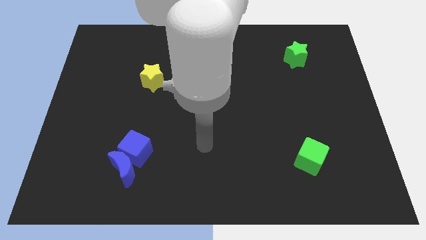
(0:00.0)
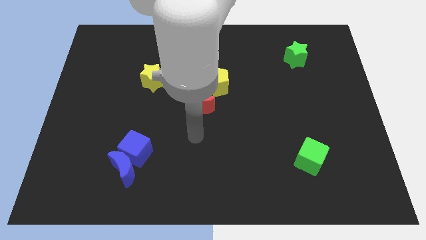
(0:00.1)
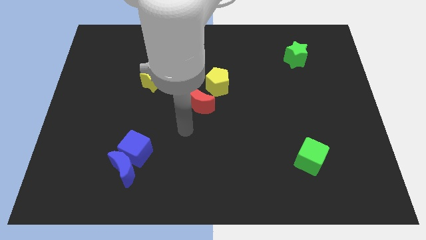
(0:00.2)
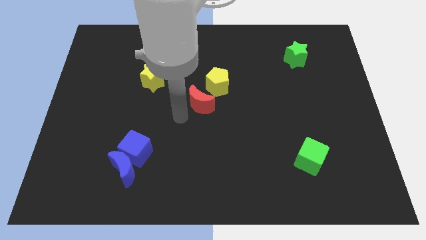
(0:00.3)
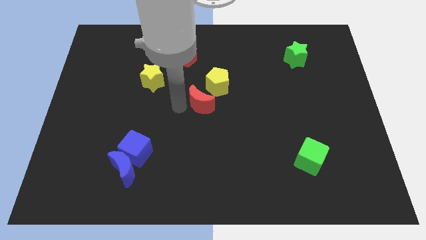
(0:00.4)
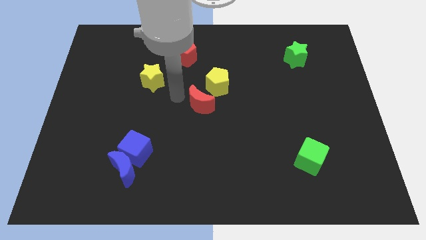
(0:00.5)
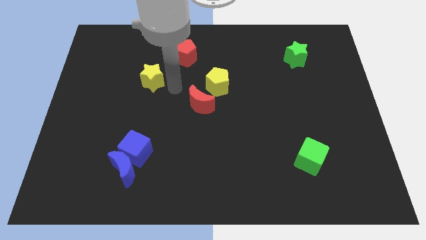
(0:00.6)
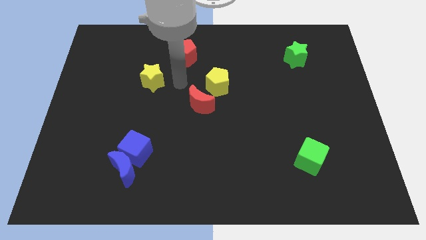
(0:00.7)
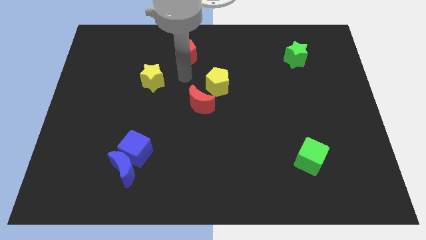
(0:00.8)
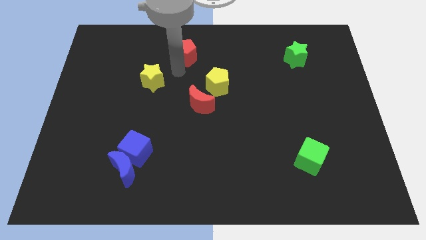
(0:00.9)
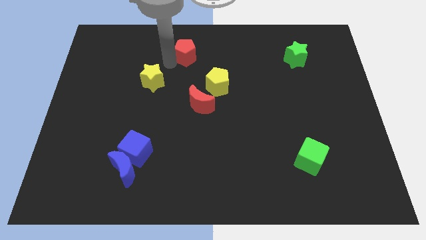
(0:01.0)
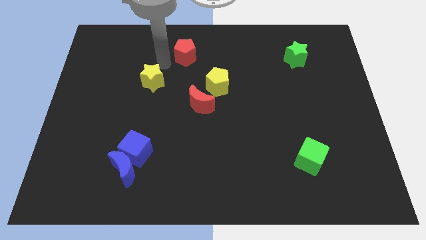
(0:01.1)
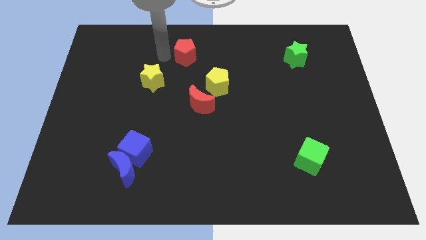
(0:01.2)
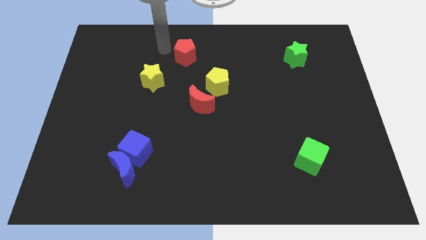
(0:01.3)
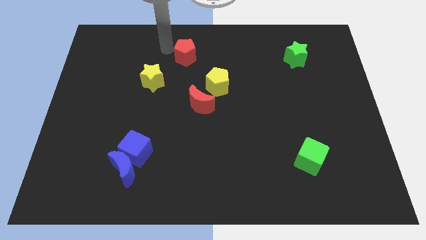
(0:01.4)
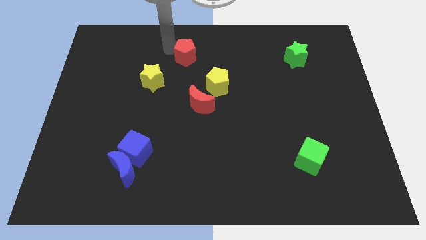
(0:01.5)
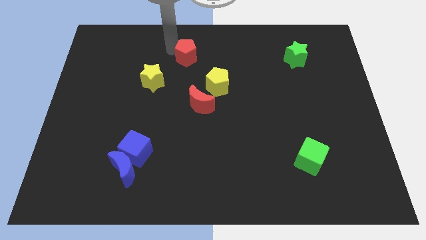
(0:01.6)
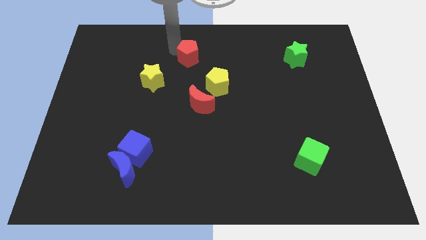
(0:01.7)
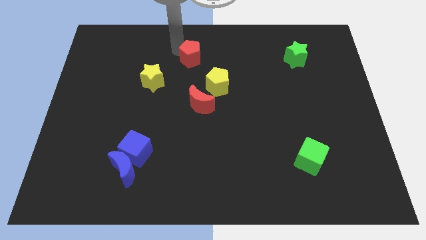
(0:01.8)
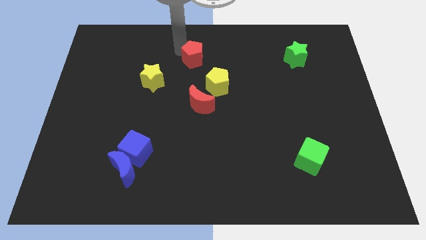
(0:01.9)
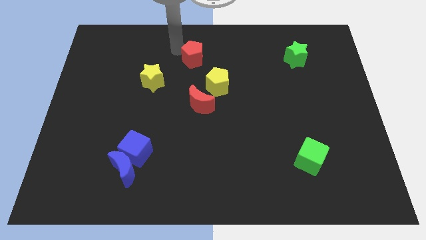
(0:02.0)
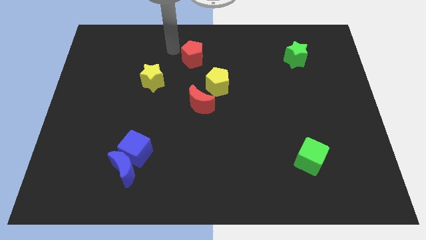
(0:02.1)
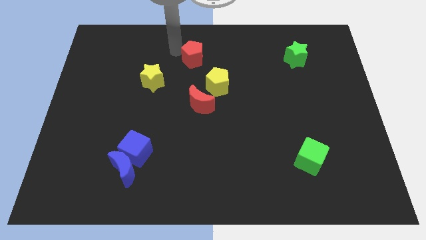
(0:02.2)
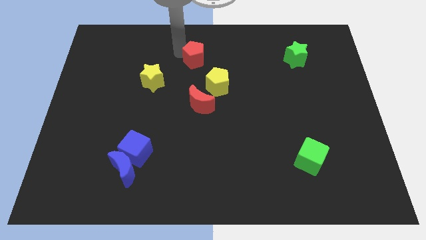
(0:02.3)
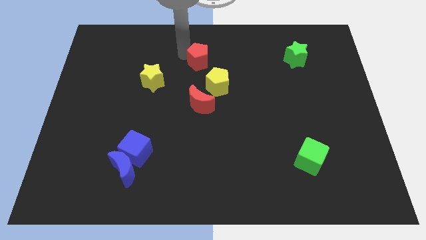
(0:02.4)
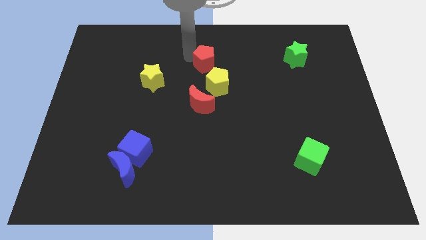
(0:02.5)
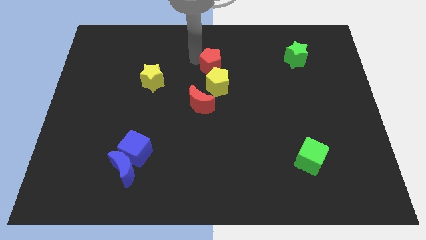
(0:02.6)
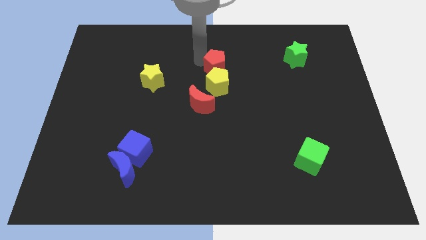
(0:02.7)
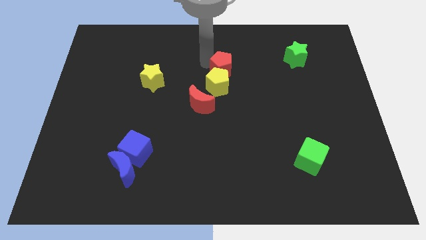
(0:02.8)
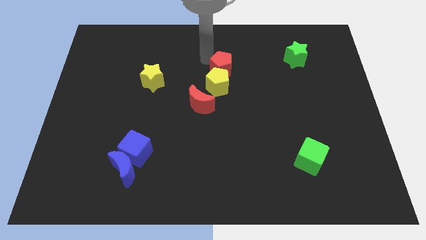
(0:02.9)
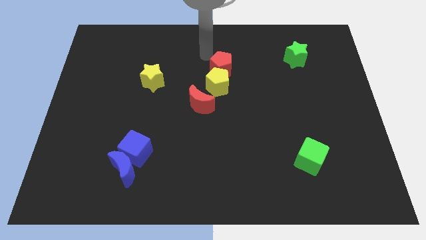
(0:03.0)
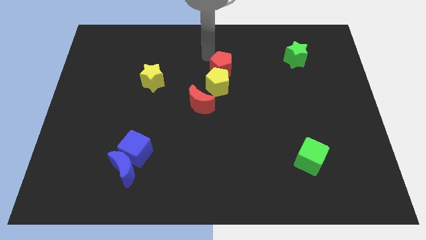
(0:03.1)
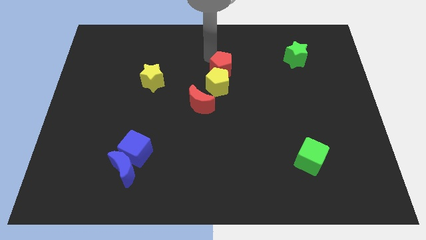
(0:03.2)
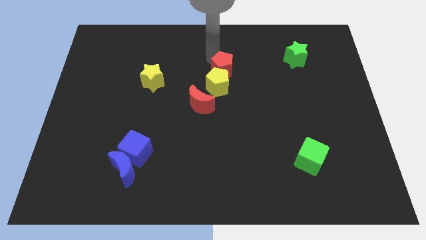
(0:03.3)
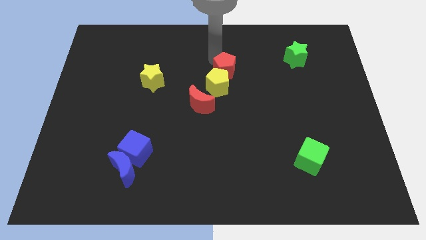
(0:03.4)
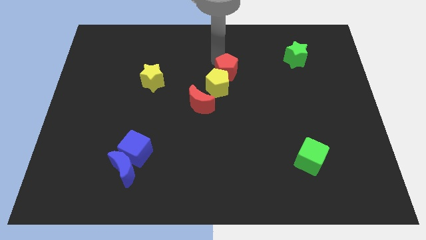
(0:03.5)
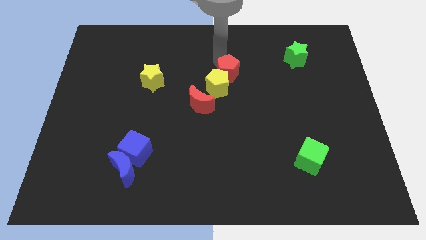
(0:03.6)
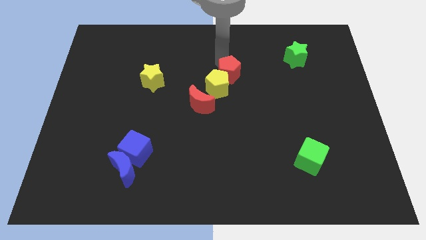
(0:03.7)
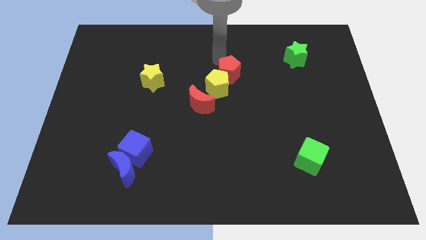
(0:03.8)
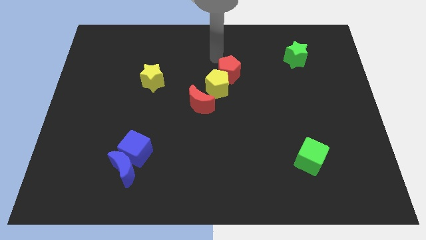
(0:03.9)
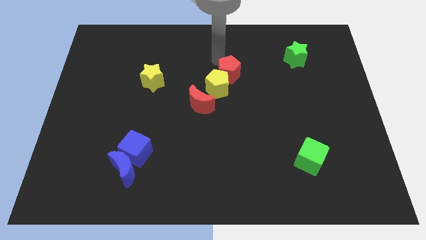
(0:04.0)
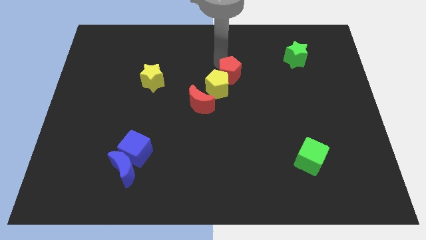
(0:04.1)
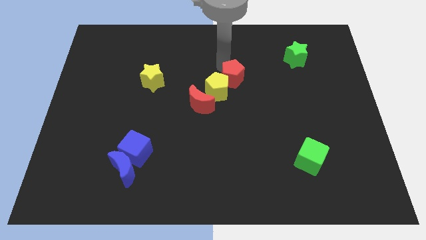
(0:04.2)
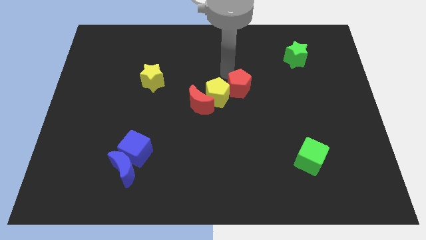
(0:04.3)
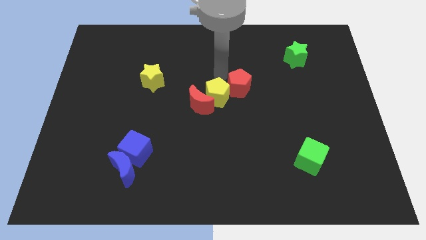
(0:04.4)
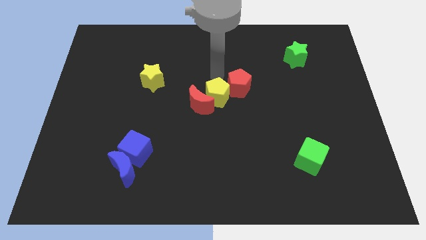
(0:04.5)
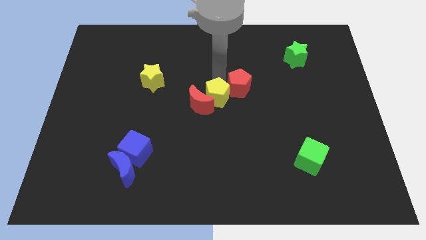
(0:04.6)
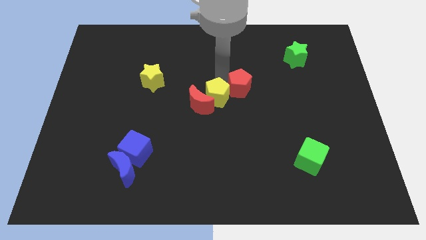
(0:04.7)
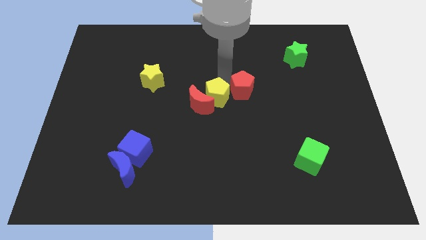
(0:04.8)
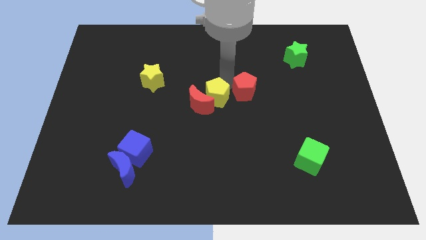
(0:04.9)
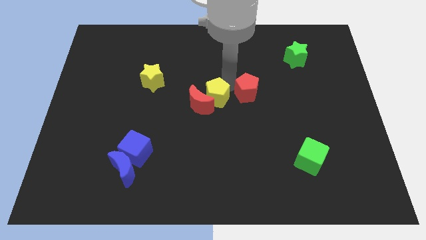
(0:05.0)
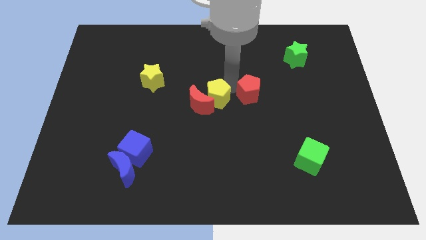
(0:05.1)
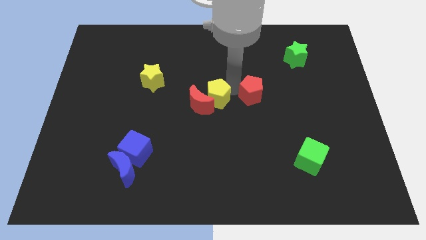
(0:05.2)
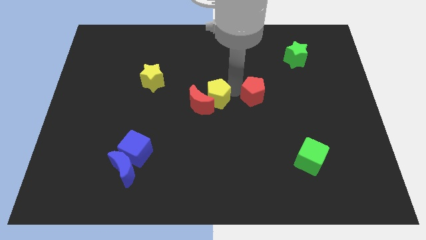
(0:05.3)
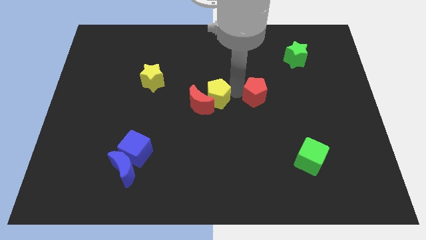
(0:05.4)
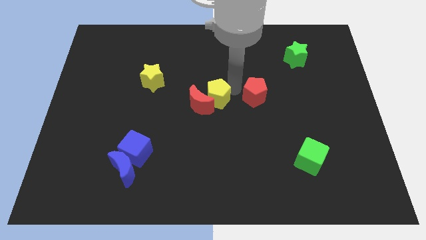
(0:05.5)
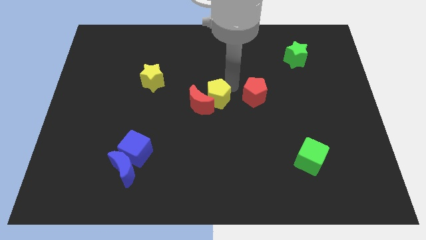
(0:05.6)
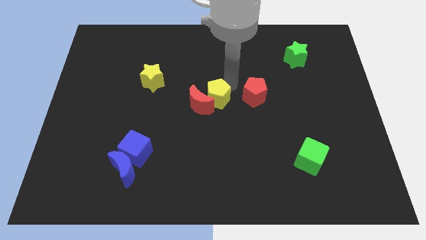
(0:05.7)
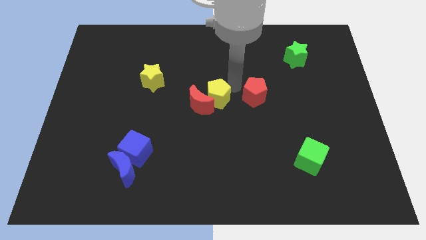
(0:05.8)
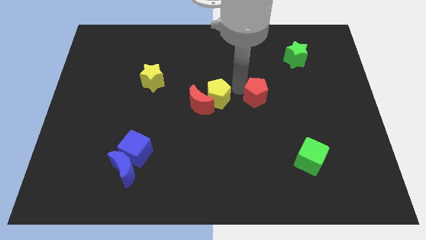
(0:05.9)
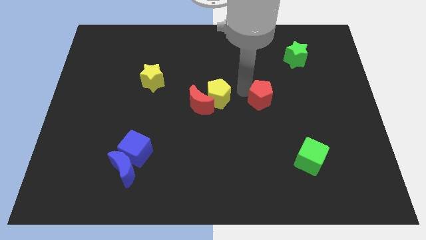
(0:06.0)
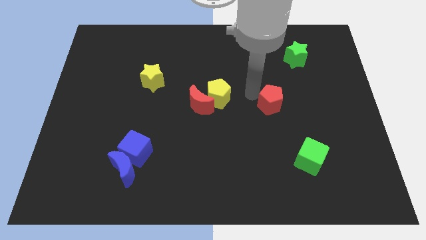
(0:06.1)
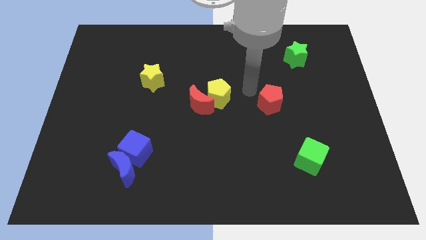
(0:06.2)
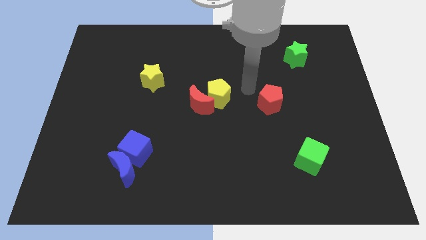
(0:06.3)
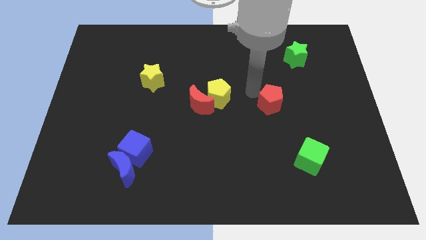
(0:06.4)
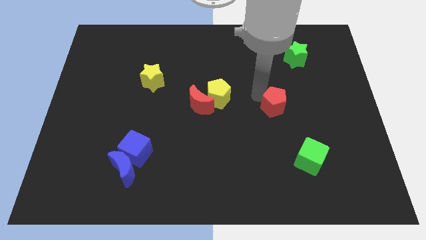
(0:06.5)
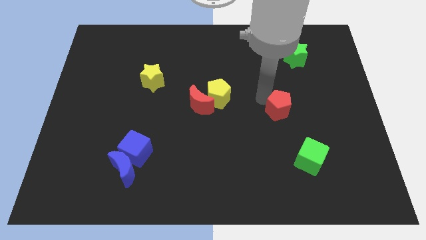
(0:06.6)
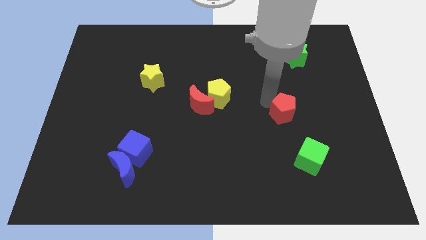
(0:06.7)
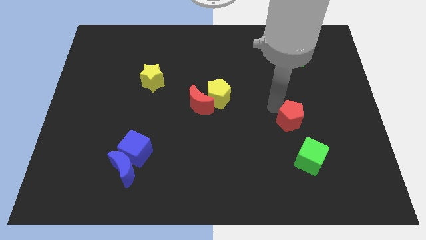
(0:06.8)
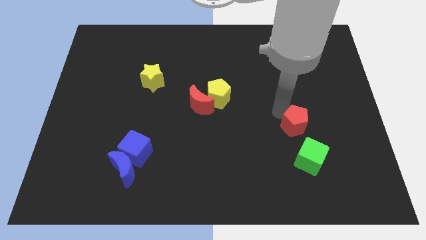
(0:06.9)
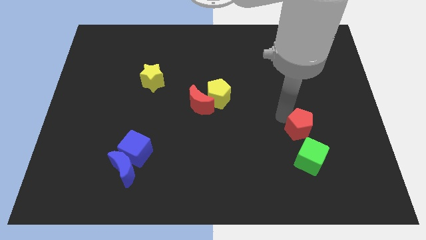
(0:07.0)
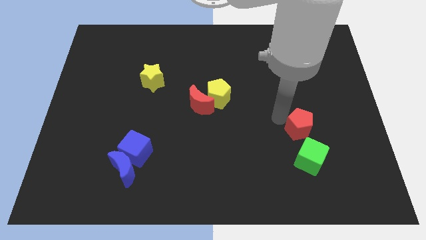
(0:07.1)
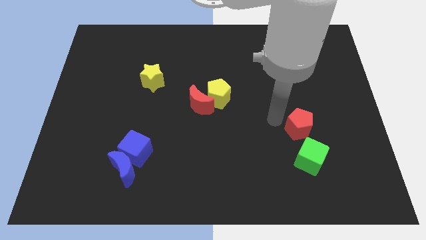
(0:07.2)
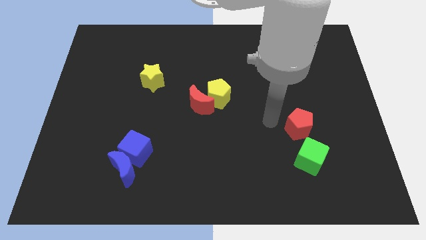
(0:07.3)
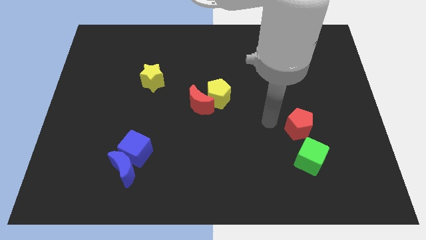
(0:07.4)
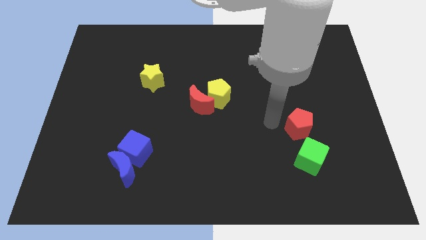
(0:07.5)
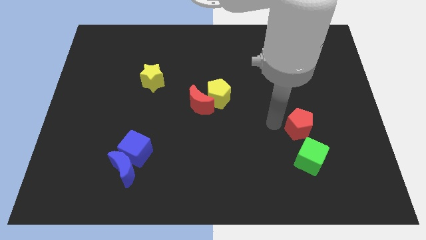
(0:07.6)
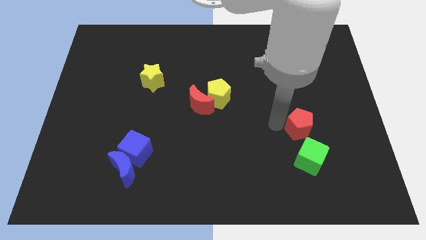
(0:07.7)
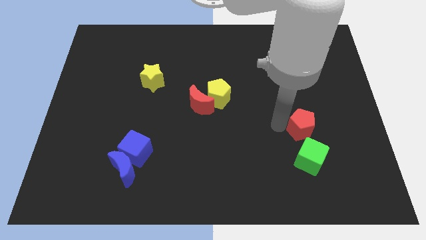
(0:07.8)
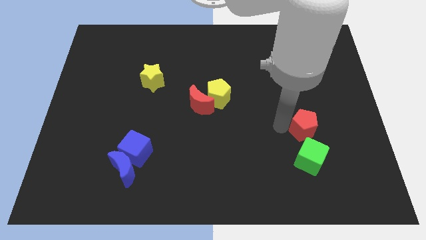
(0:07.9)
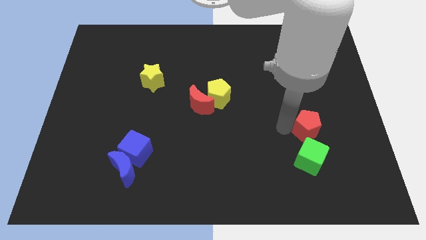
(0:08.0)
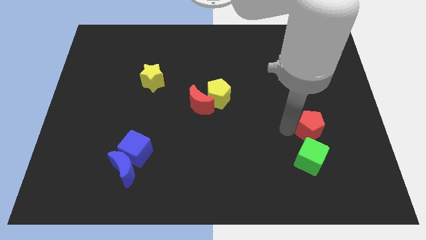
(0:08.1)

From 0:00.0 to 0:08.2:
put the red pentagon to the top right of the green cube
